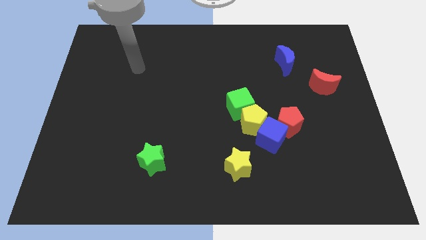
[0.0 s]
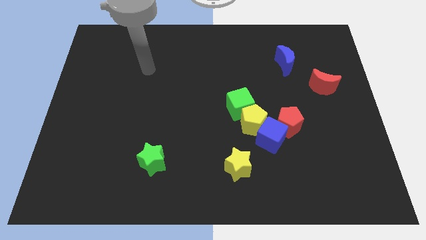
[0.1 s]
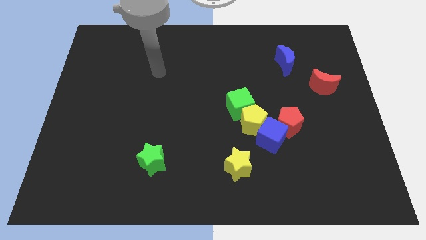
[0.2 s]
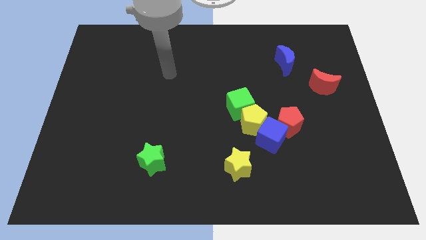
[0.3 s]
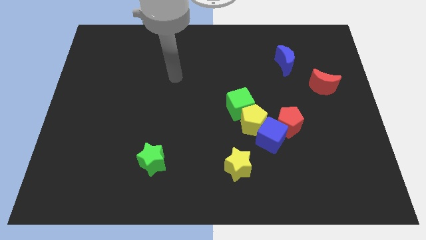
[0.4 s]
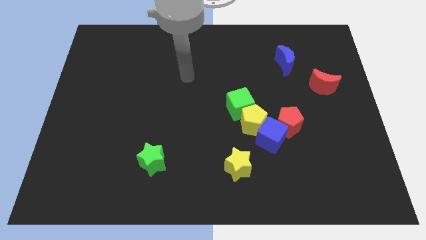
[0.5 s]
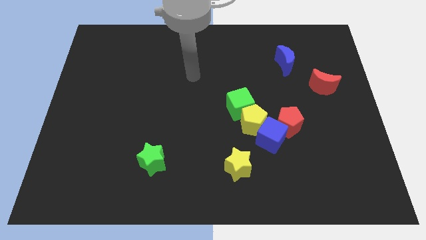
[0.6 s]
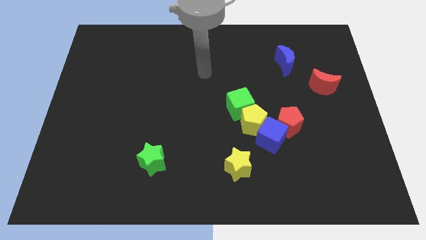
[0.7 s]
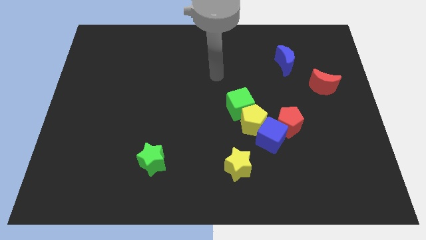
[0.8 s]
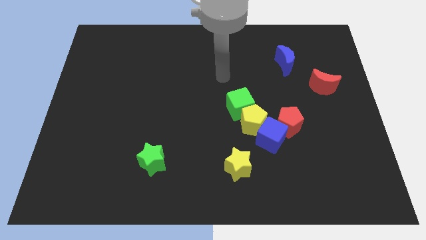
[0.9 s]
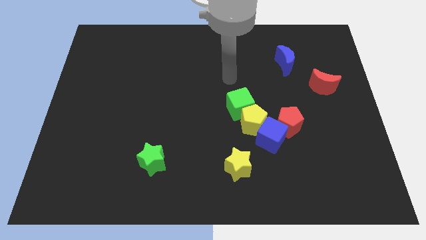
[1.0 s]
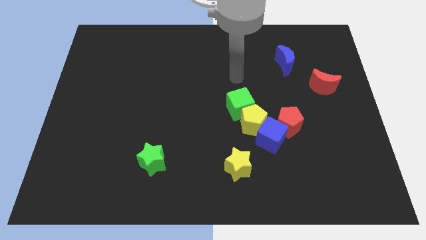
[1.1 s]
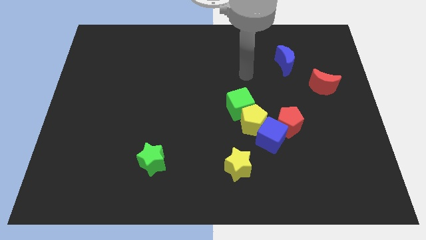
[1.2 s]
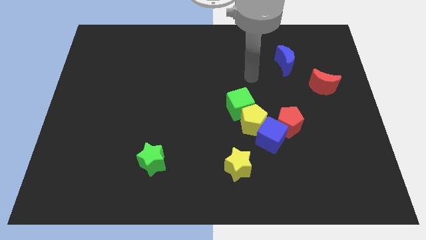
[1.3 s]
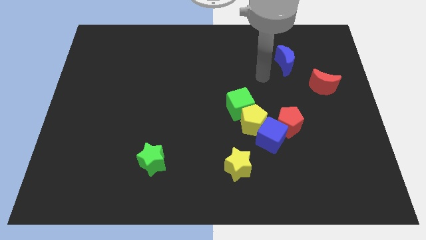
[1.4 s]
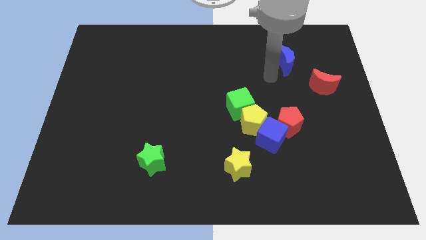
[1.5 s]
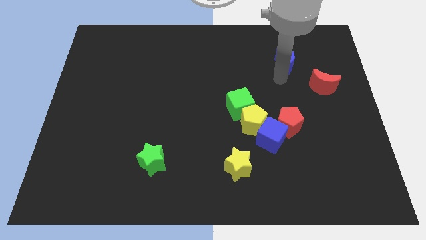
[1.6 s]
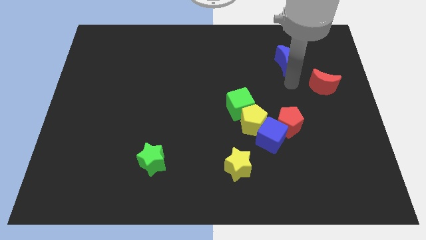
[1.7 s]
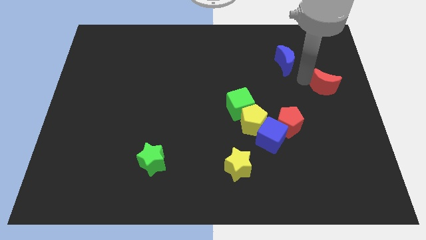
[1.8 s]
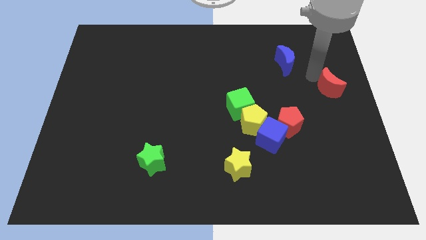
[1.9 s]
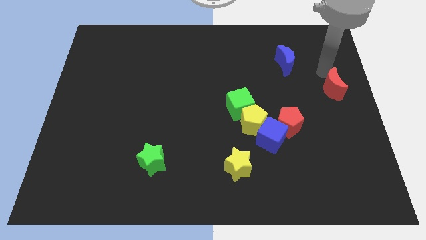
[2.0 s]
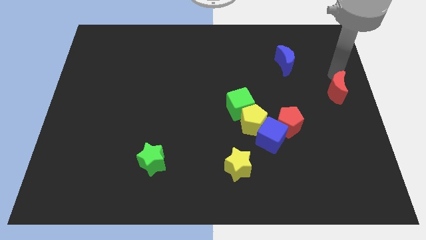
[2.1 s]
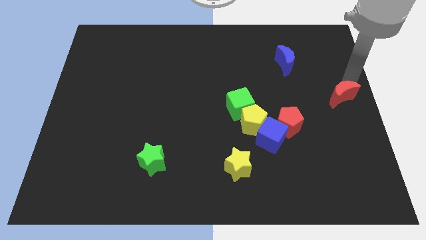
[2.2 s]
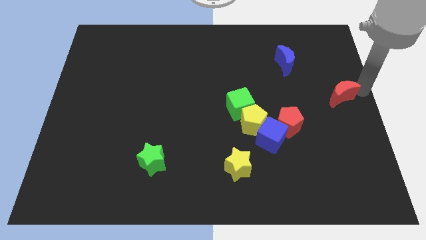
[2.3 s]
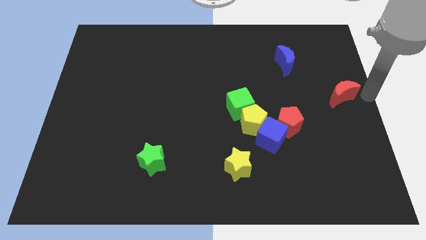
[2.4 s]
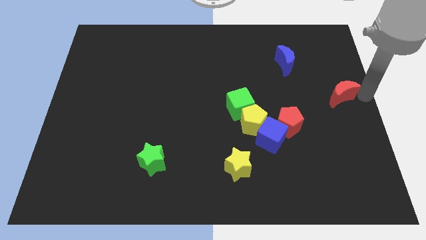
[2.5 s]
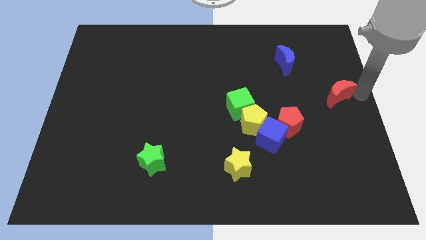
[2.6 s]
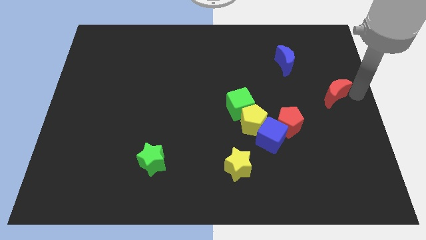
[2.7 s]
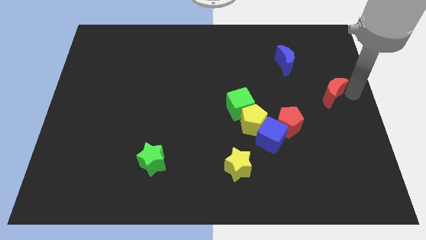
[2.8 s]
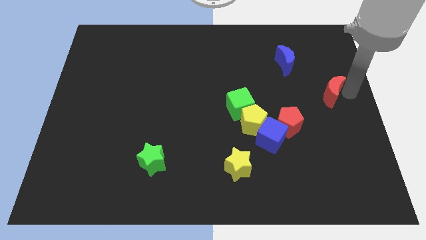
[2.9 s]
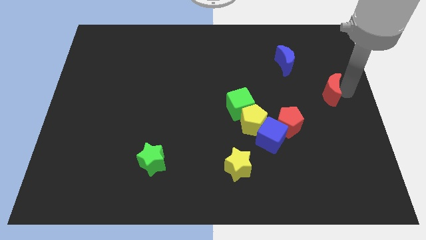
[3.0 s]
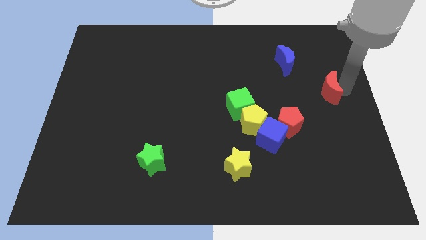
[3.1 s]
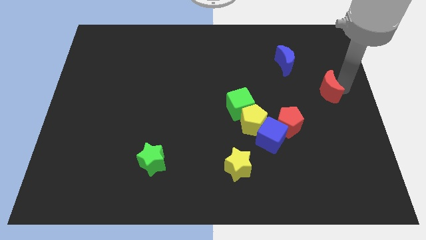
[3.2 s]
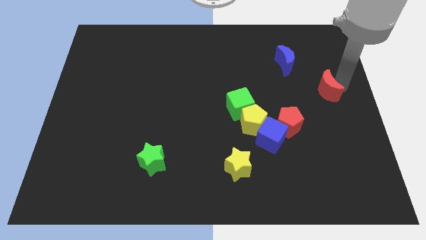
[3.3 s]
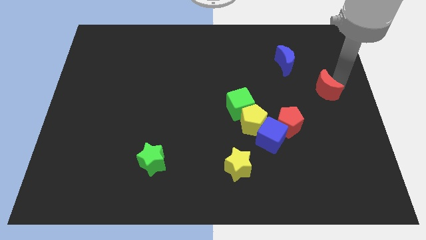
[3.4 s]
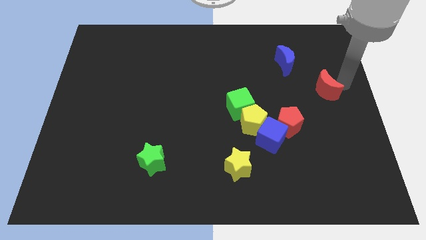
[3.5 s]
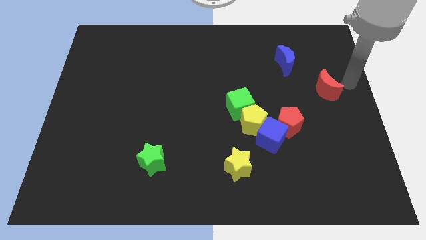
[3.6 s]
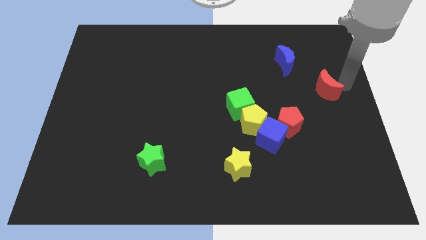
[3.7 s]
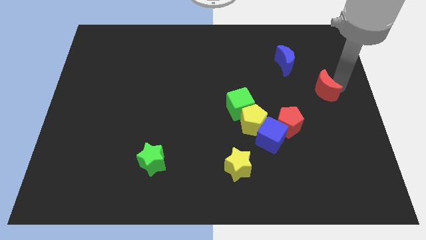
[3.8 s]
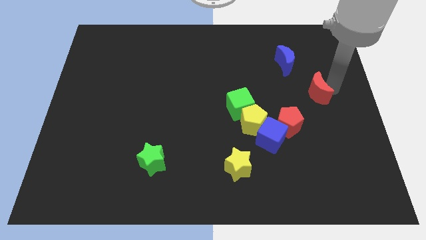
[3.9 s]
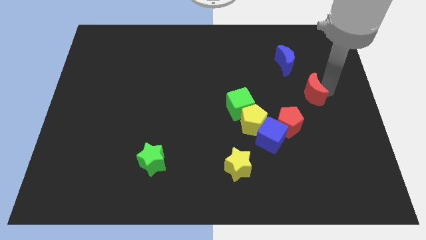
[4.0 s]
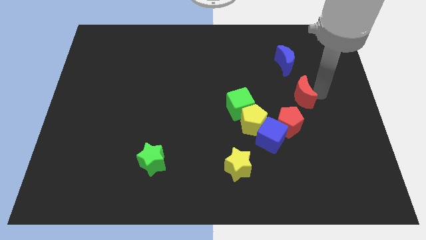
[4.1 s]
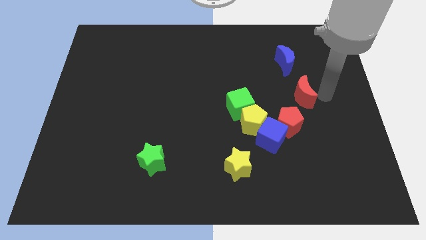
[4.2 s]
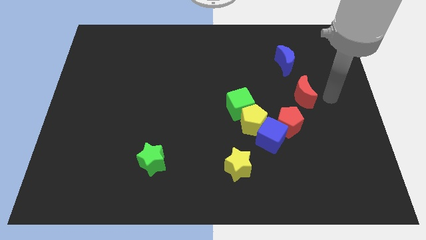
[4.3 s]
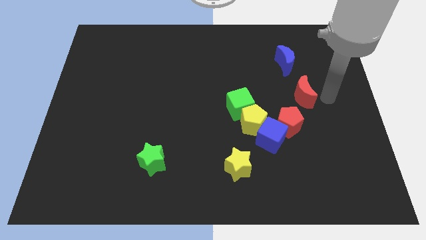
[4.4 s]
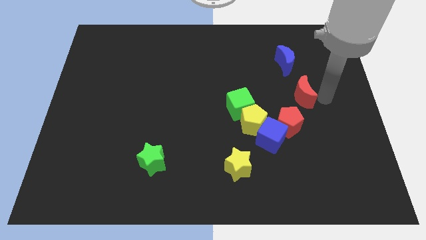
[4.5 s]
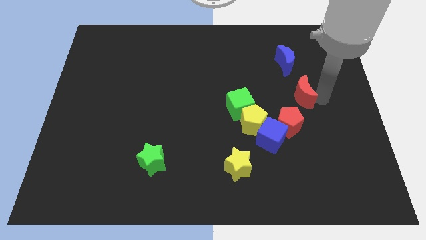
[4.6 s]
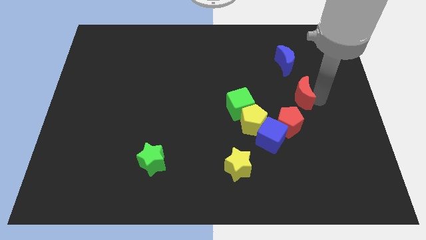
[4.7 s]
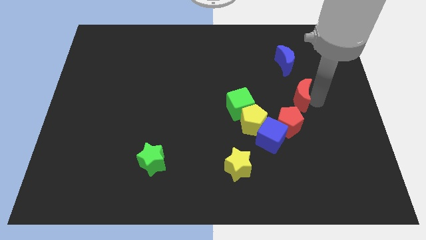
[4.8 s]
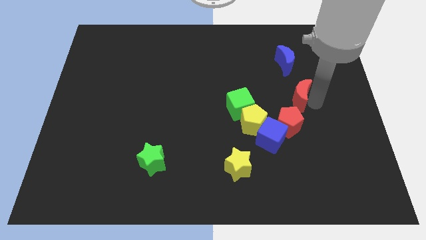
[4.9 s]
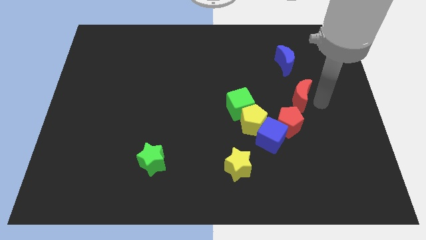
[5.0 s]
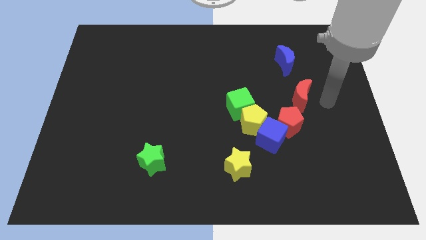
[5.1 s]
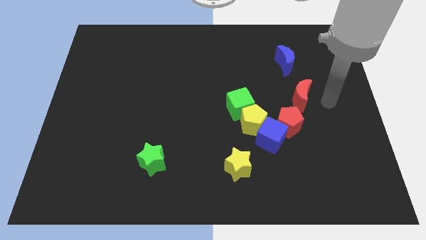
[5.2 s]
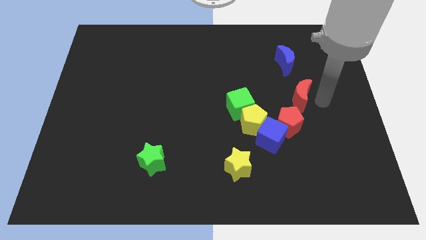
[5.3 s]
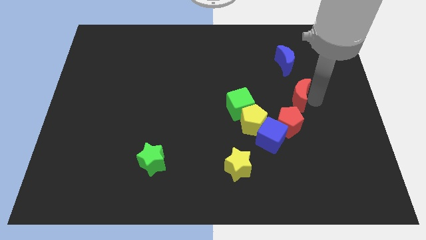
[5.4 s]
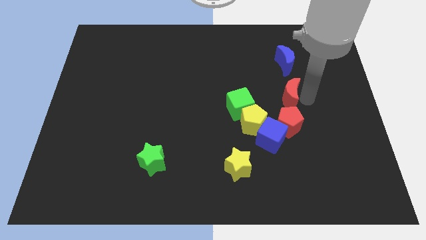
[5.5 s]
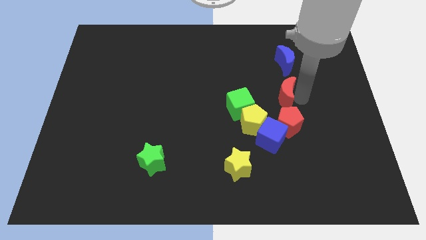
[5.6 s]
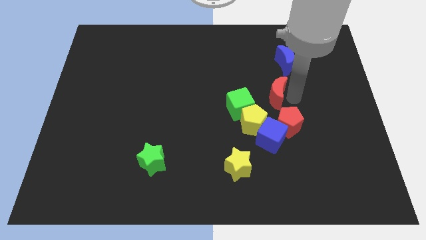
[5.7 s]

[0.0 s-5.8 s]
push the red moon to the top right side of the green cube

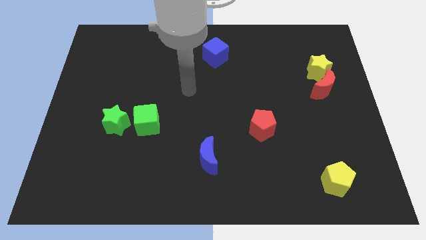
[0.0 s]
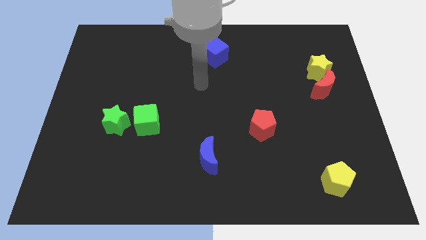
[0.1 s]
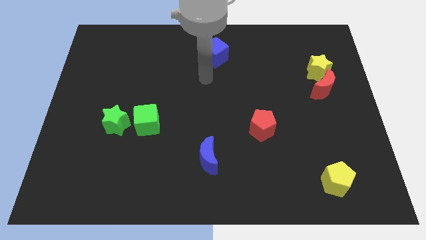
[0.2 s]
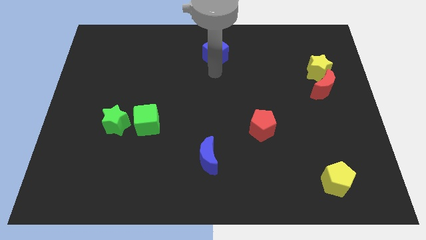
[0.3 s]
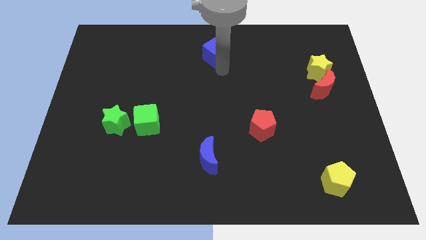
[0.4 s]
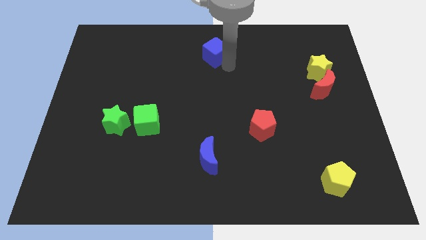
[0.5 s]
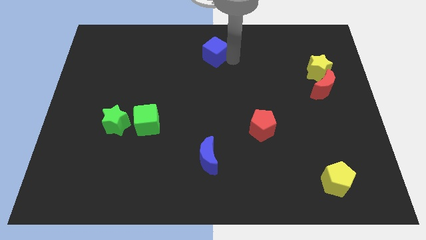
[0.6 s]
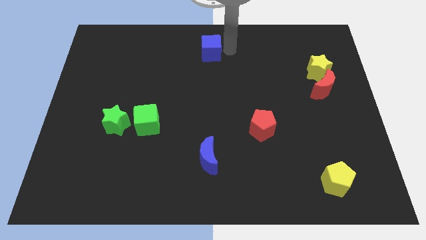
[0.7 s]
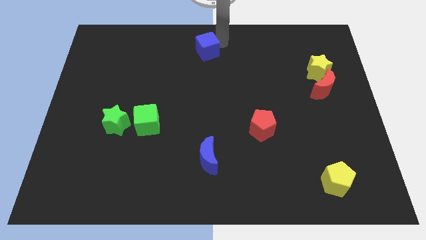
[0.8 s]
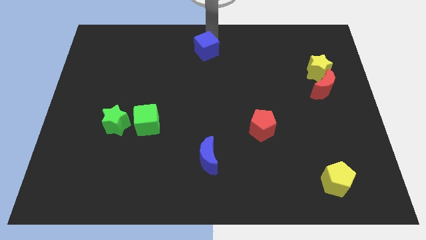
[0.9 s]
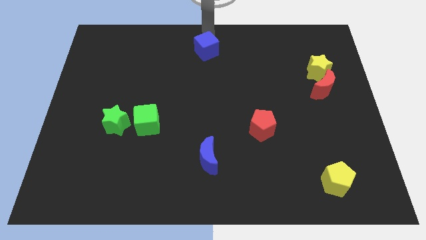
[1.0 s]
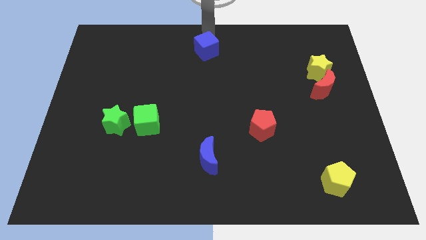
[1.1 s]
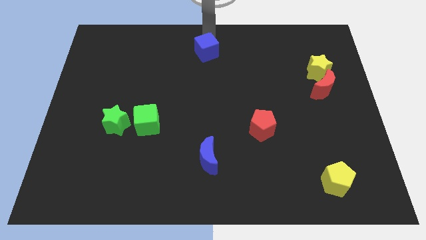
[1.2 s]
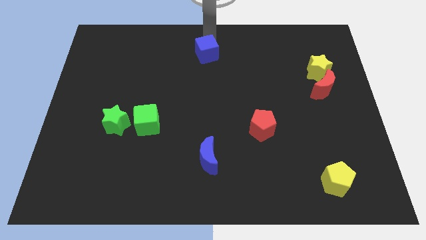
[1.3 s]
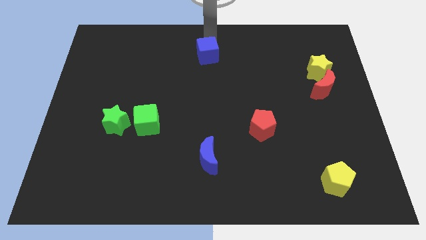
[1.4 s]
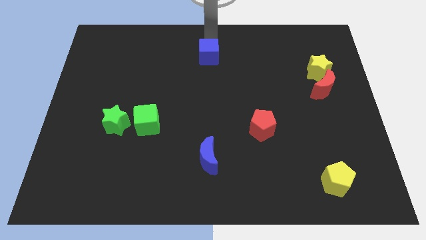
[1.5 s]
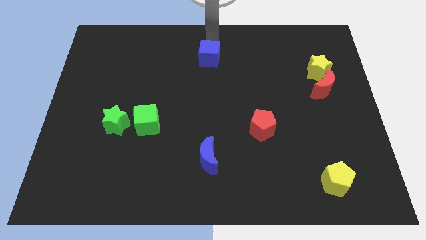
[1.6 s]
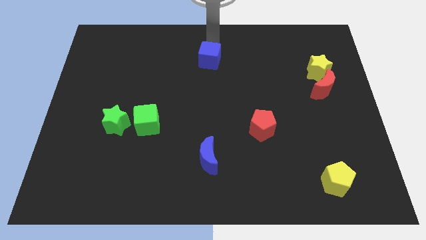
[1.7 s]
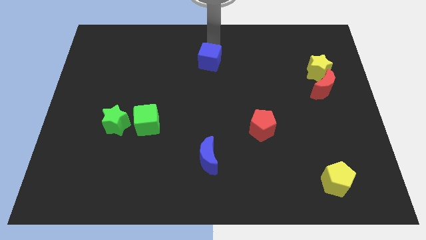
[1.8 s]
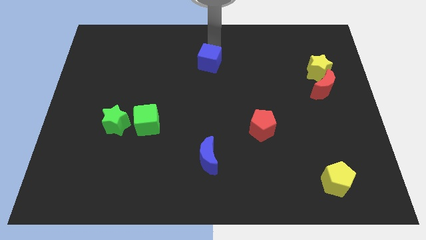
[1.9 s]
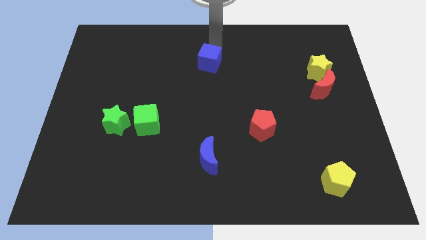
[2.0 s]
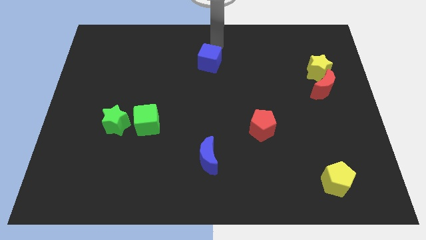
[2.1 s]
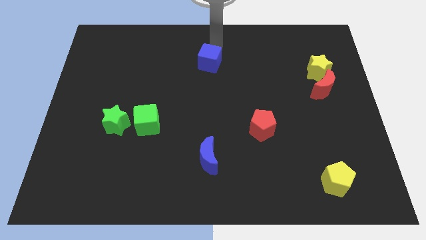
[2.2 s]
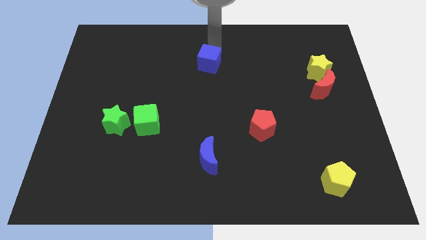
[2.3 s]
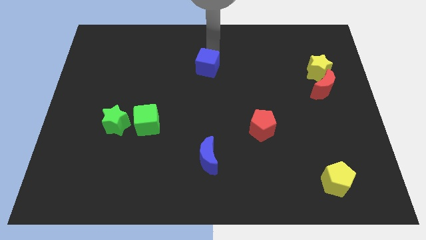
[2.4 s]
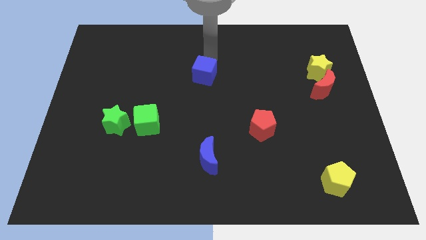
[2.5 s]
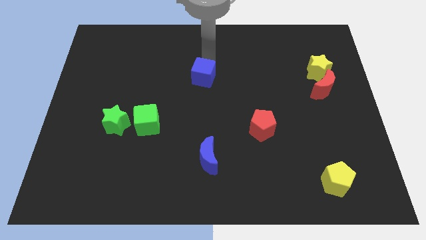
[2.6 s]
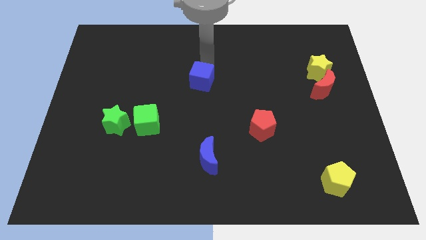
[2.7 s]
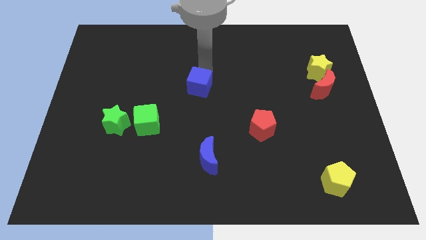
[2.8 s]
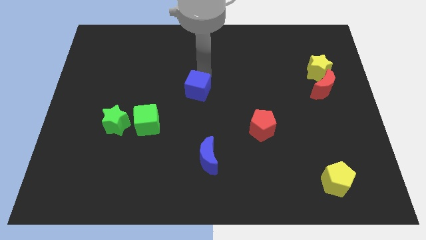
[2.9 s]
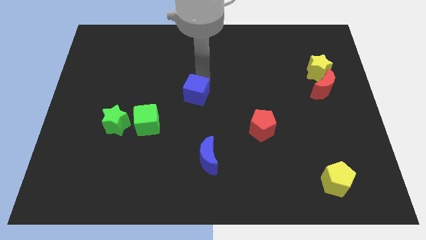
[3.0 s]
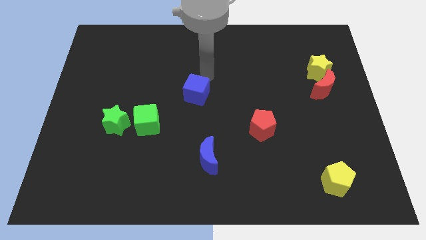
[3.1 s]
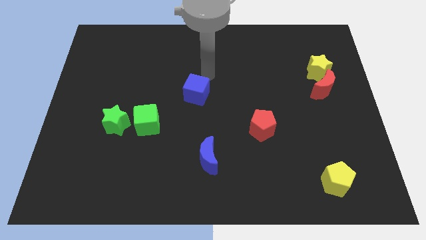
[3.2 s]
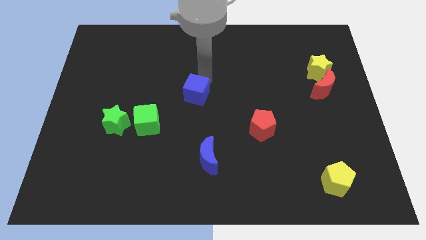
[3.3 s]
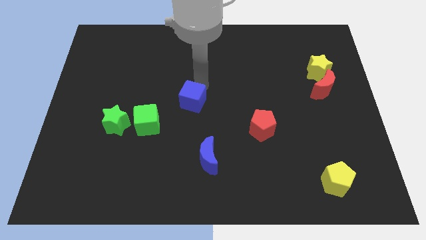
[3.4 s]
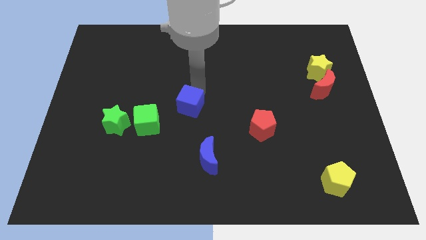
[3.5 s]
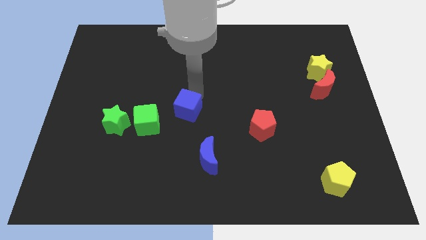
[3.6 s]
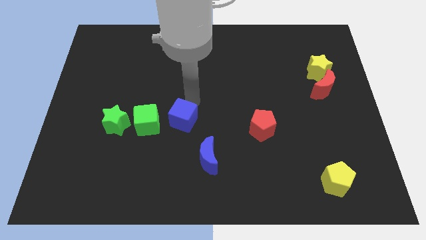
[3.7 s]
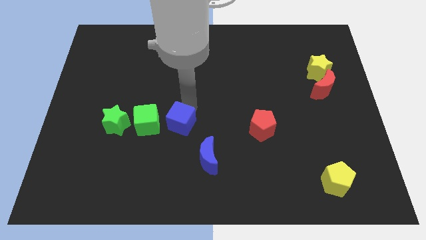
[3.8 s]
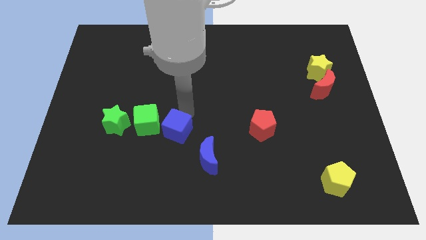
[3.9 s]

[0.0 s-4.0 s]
push the blue cube to the bottom right of the green cube
